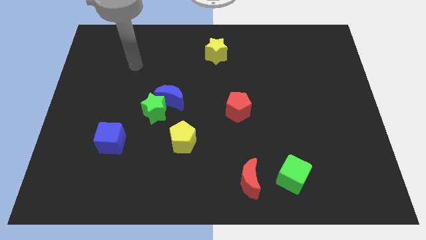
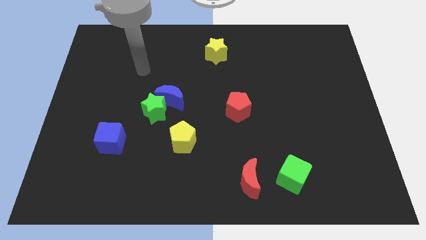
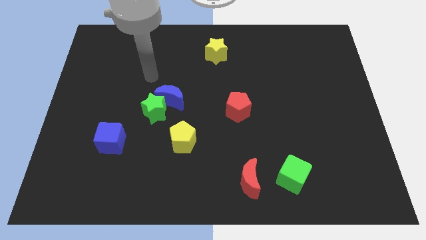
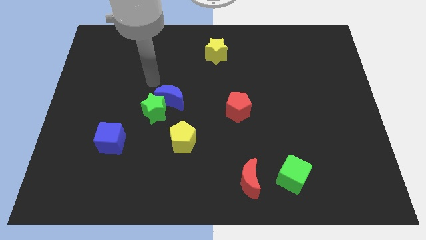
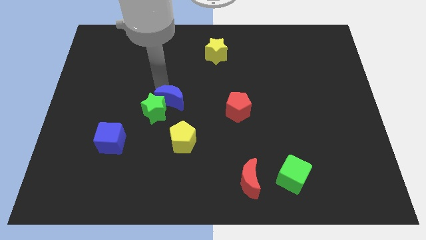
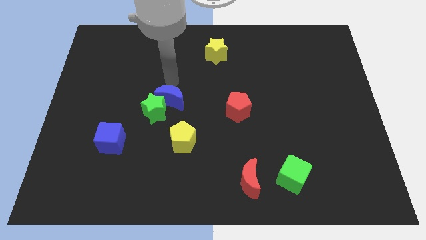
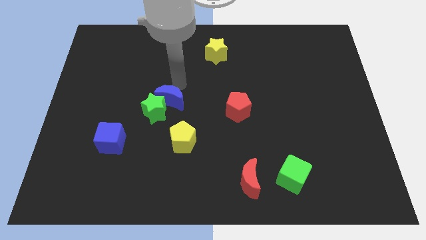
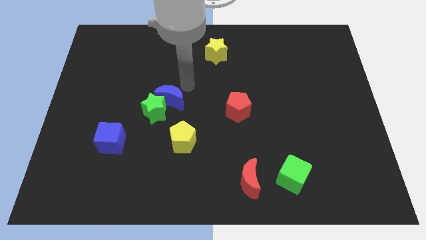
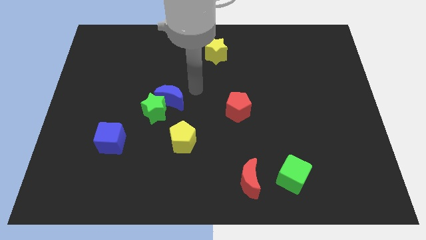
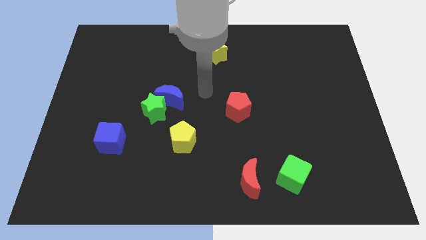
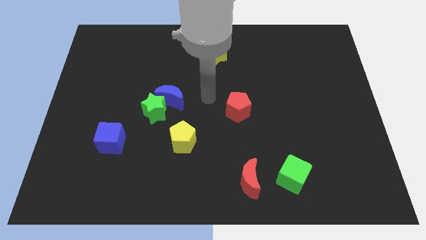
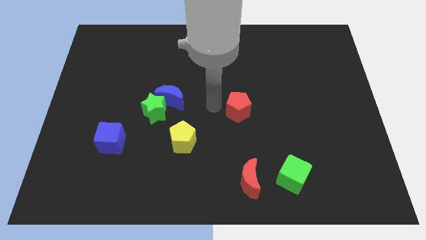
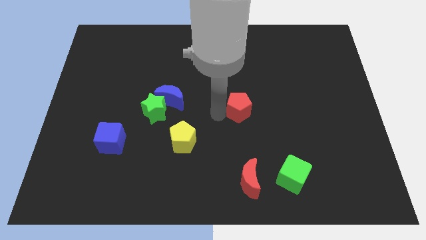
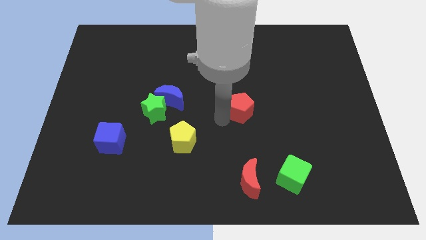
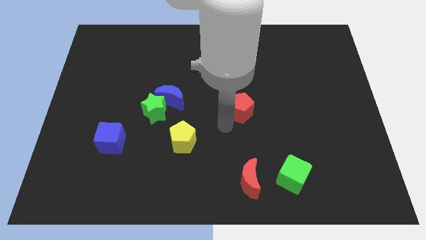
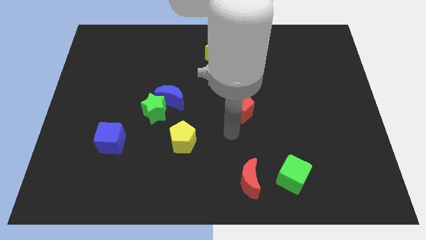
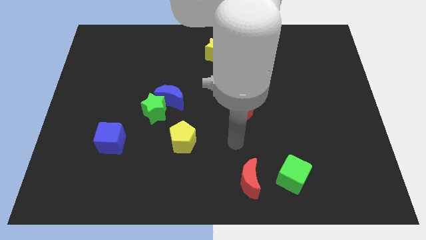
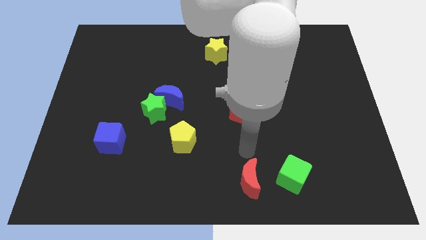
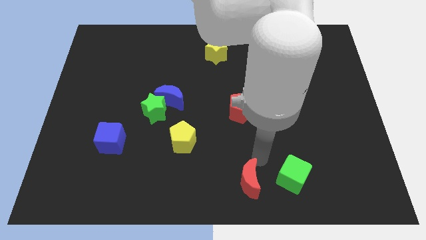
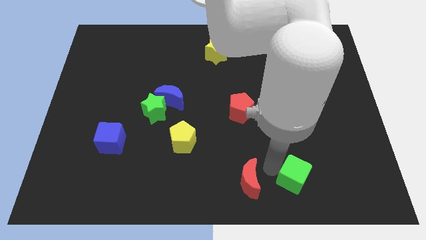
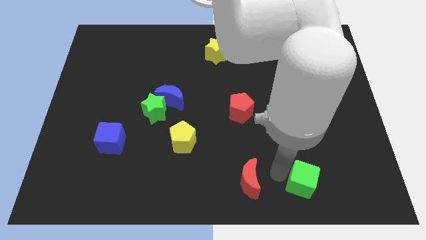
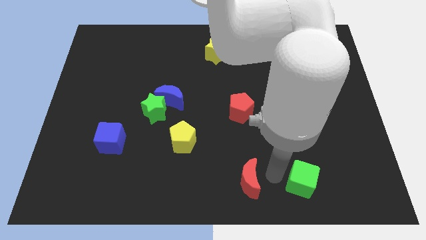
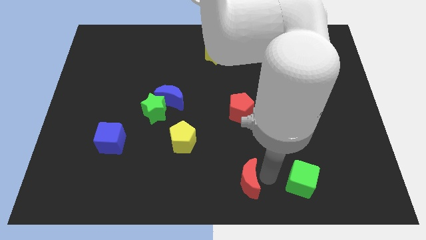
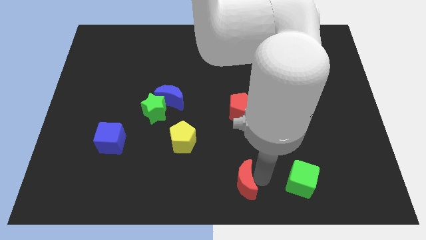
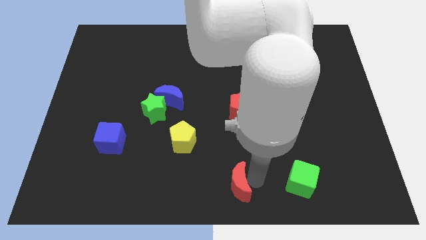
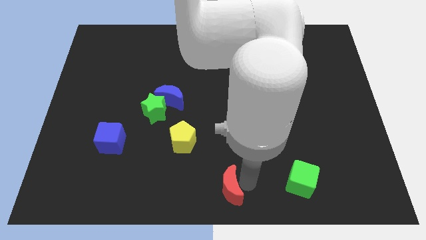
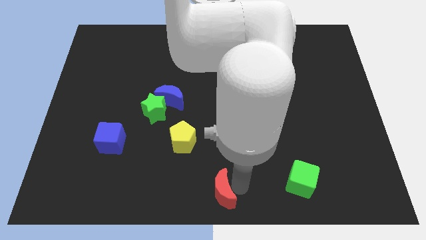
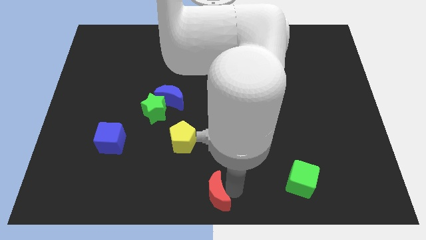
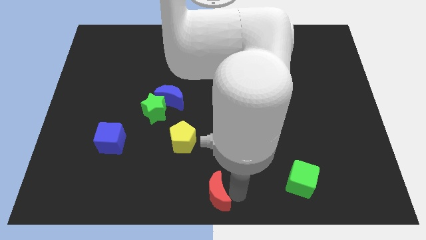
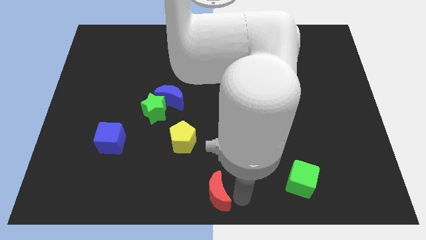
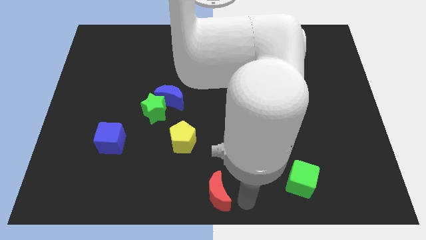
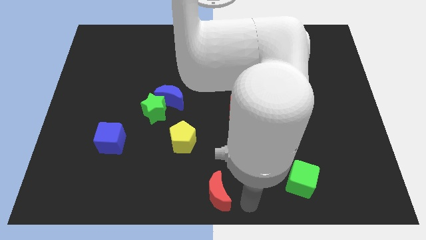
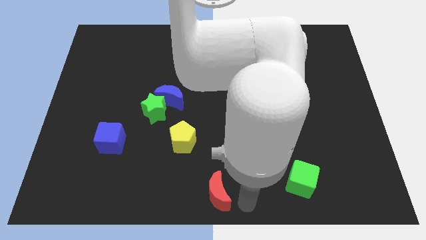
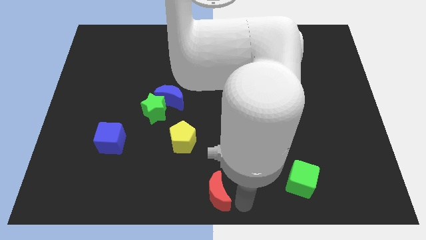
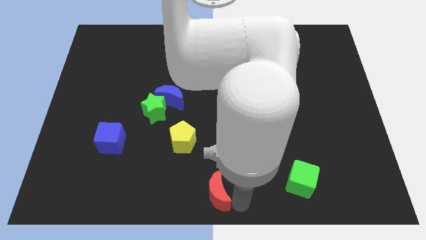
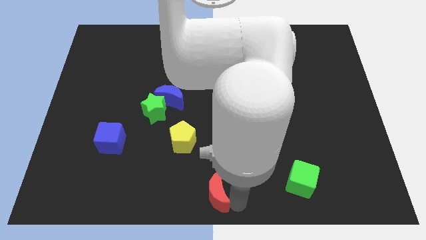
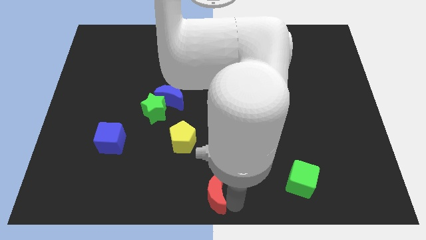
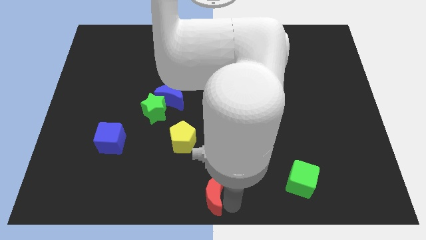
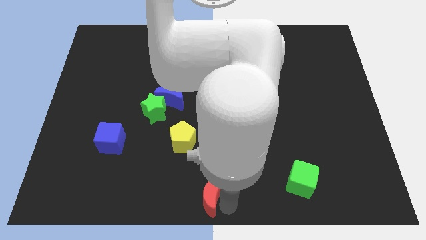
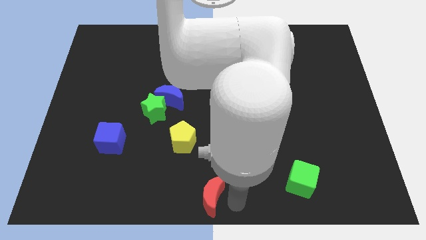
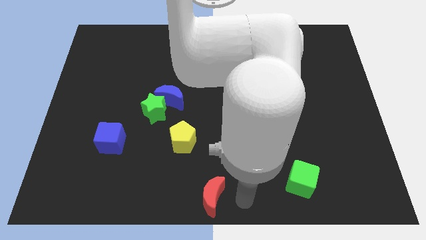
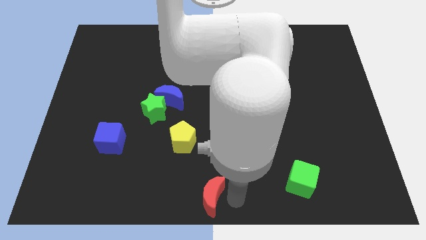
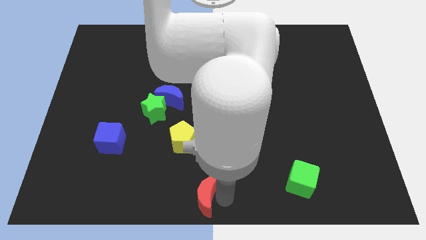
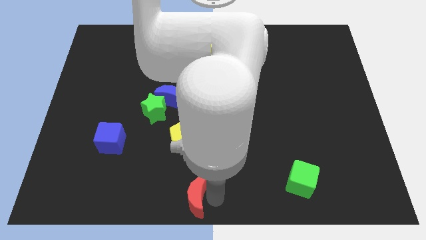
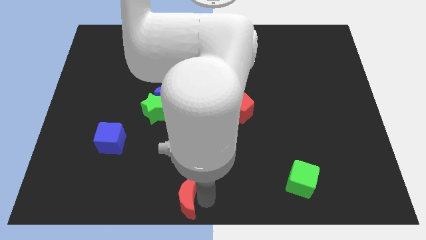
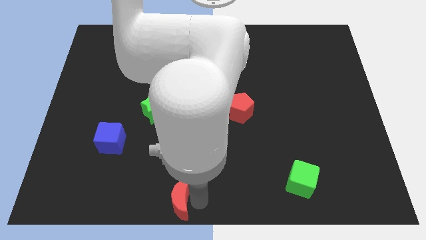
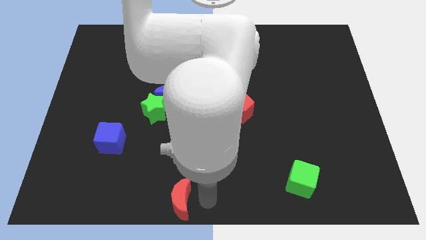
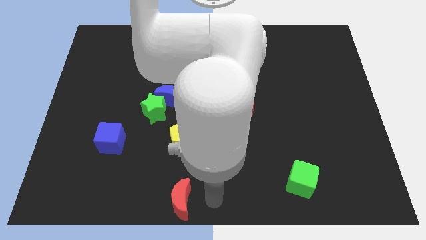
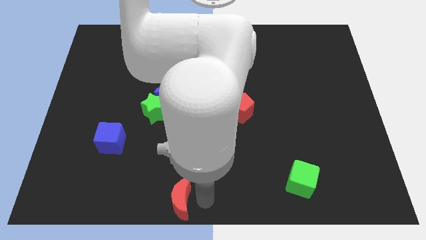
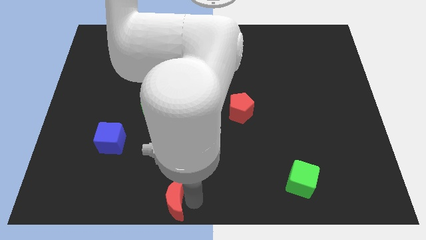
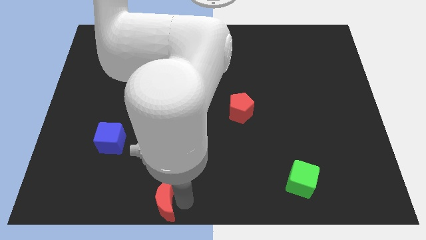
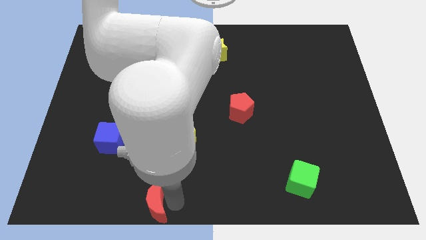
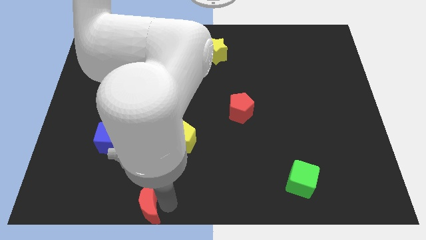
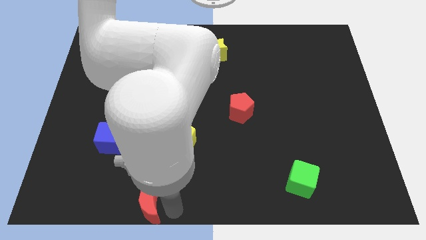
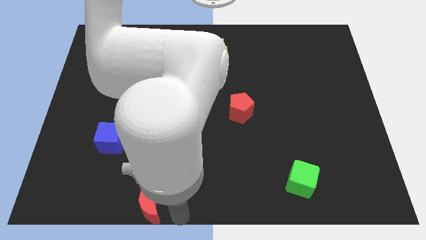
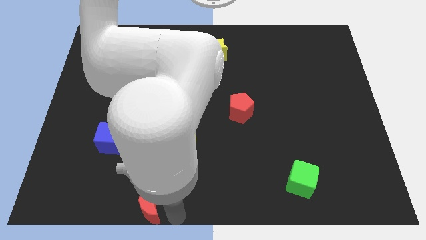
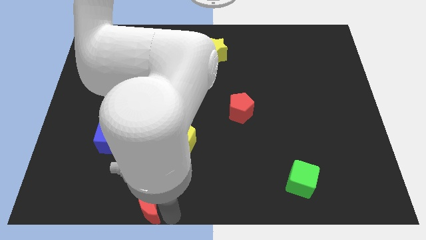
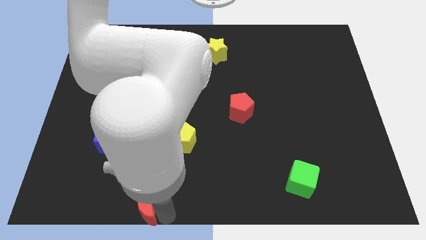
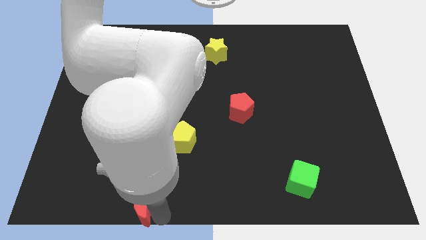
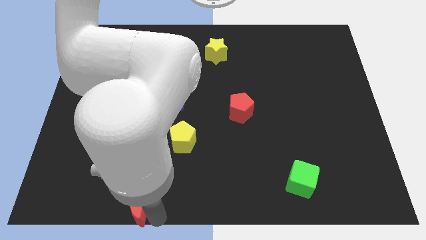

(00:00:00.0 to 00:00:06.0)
push the red moon left

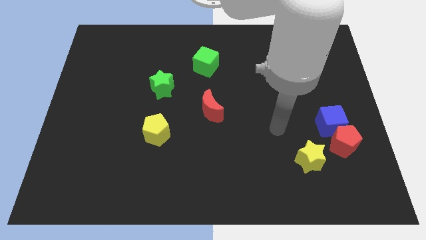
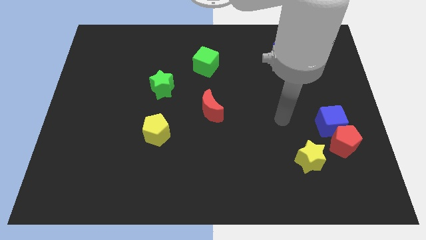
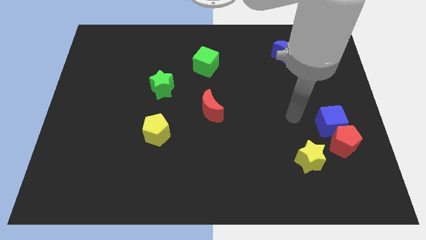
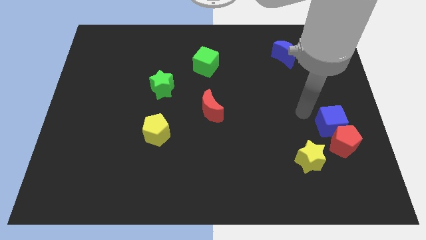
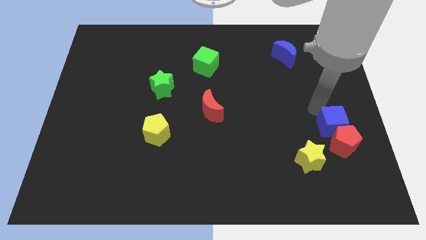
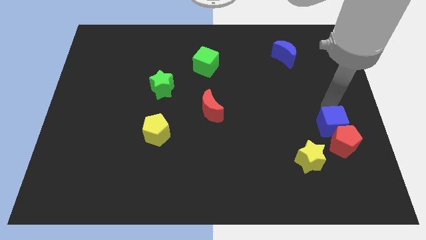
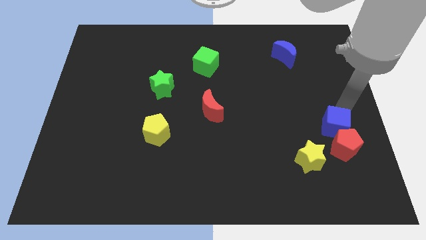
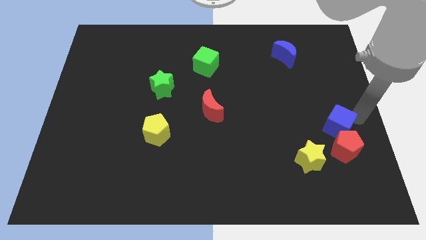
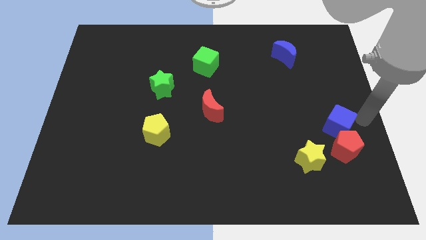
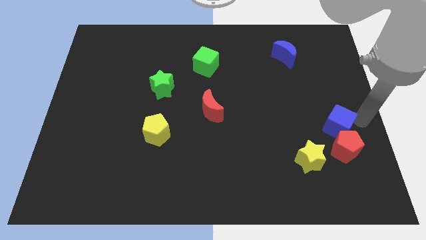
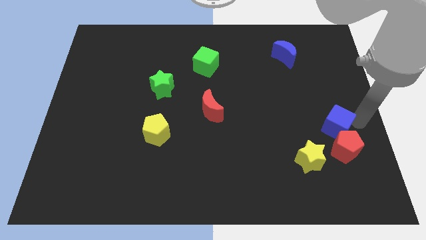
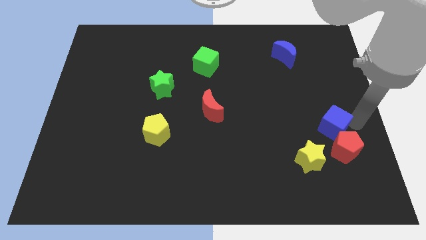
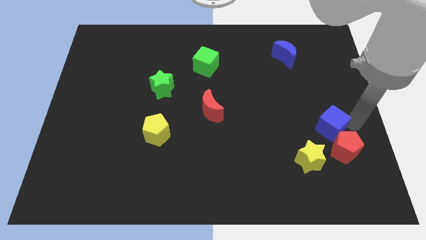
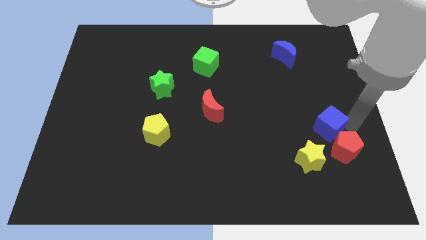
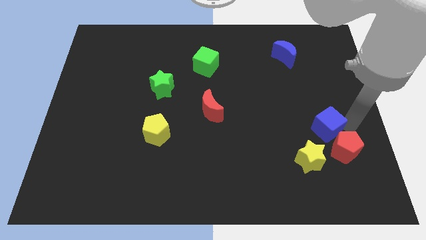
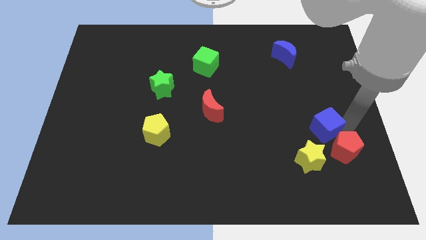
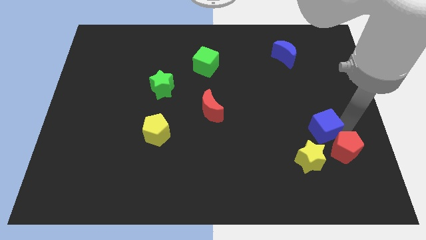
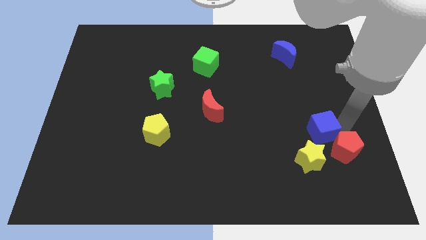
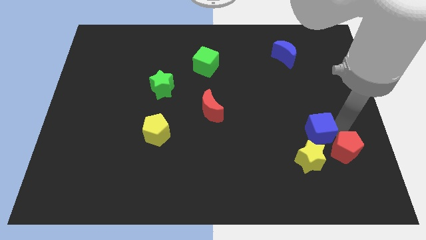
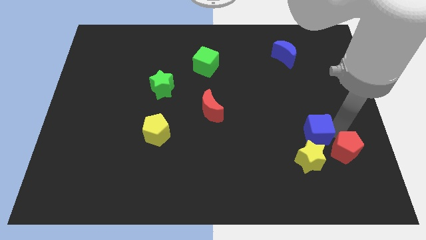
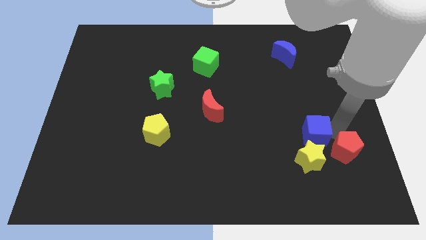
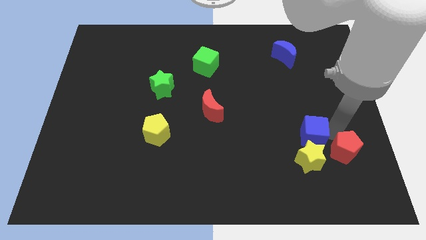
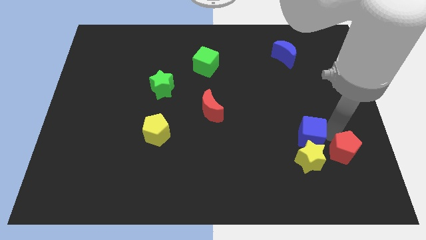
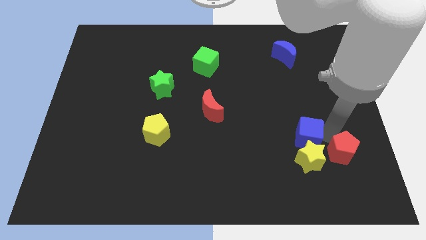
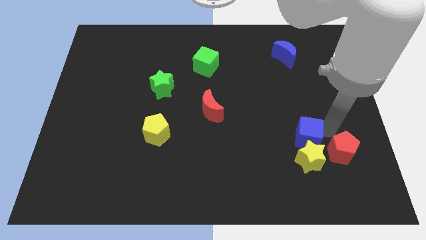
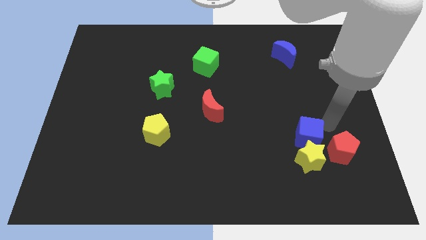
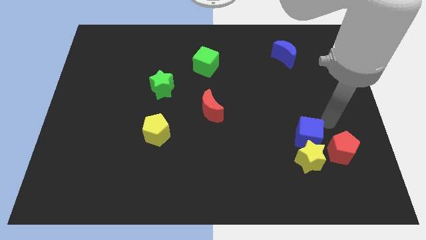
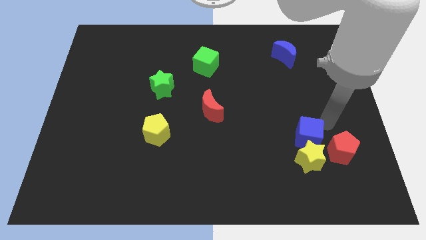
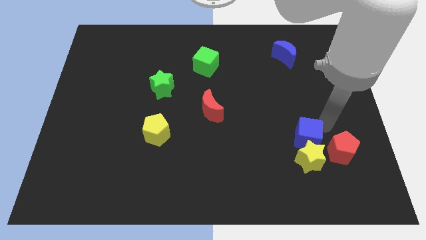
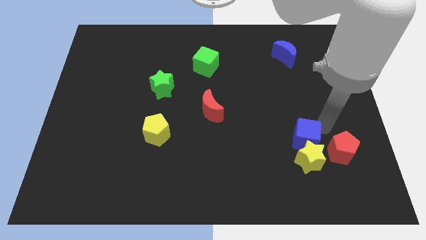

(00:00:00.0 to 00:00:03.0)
slightly move the blue cube downwards and to the left diagonally
